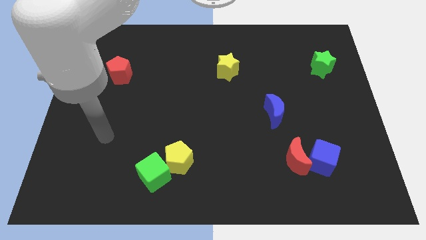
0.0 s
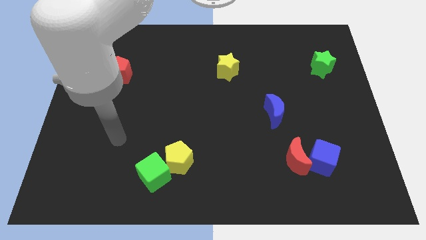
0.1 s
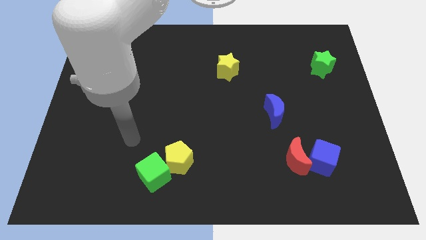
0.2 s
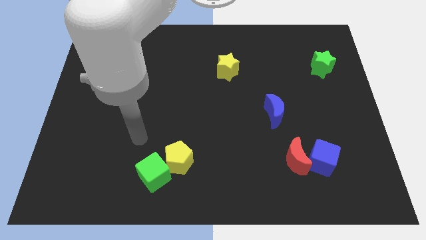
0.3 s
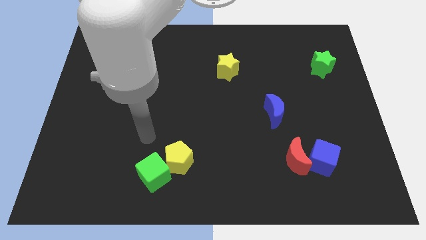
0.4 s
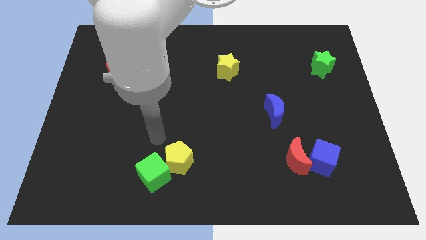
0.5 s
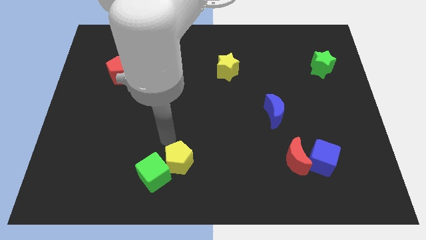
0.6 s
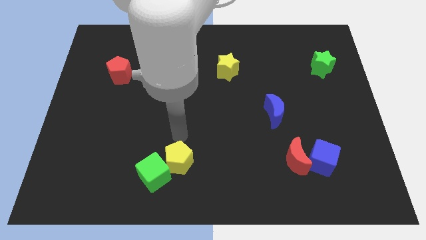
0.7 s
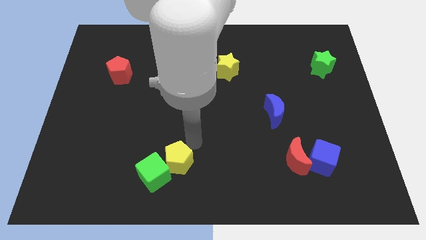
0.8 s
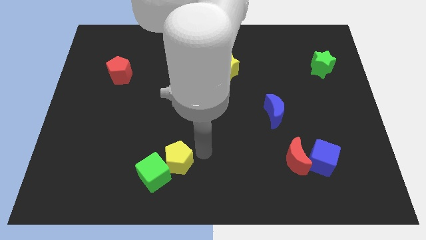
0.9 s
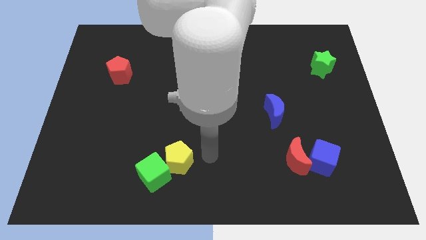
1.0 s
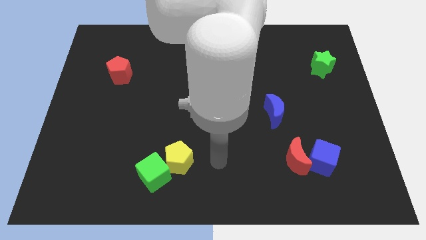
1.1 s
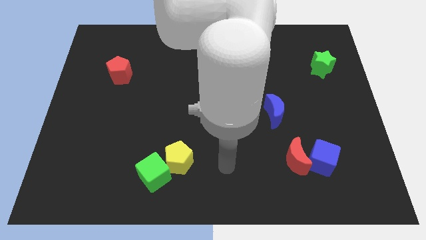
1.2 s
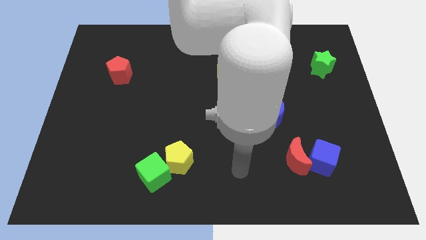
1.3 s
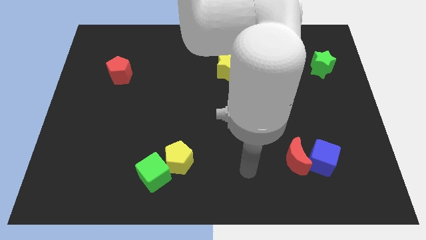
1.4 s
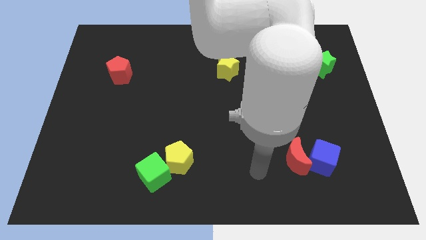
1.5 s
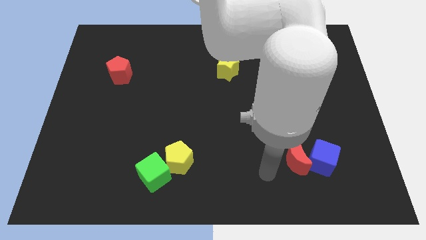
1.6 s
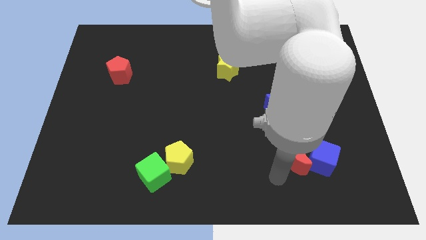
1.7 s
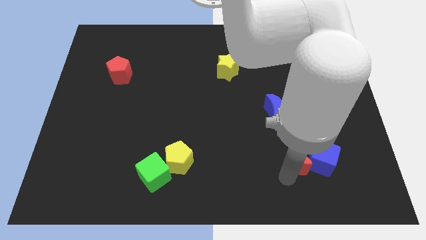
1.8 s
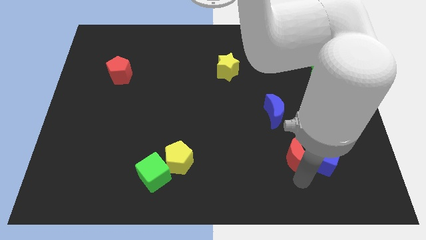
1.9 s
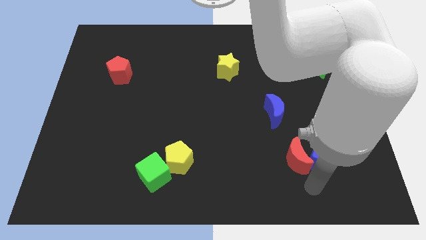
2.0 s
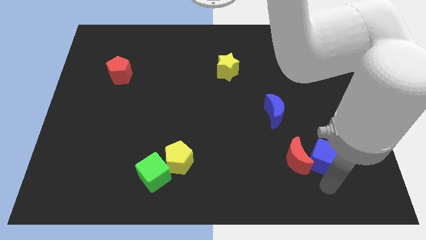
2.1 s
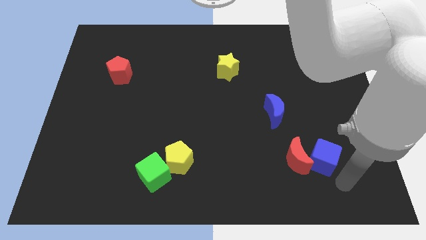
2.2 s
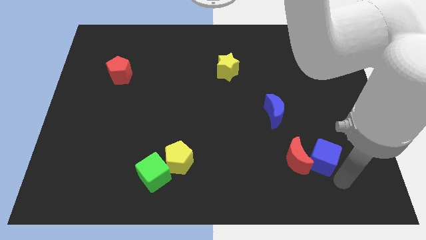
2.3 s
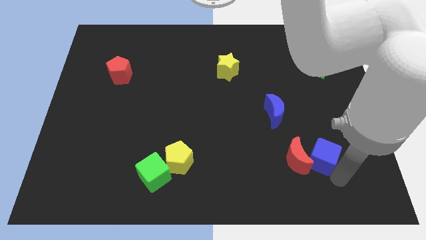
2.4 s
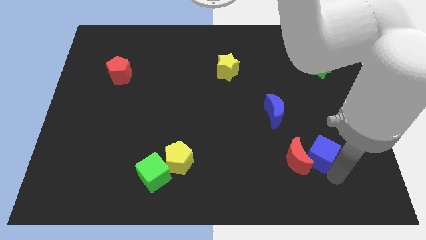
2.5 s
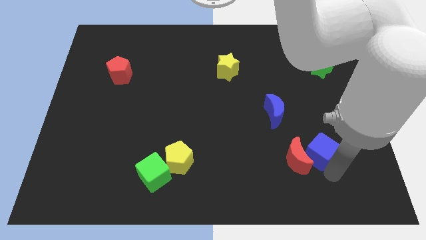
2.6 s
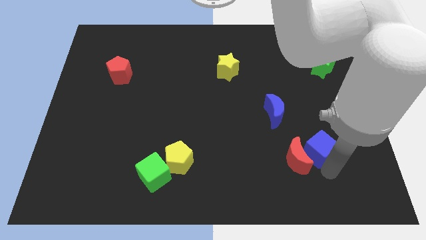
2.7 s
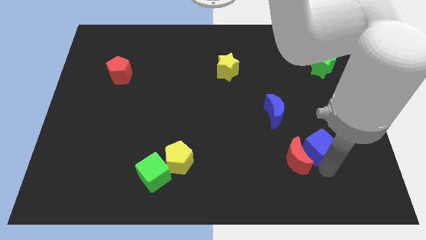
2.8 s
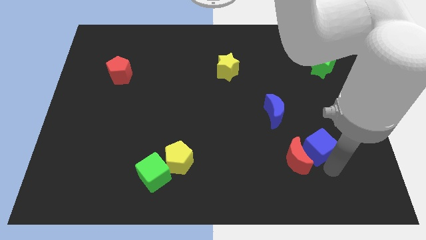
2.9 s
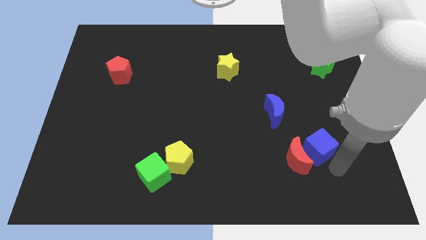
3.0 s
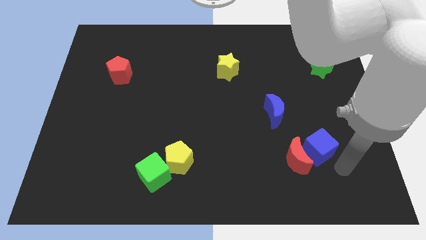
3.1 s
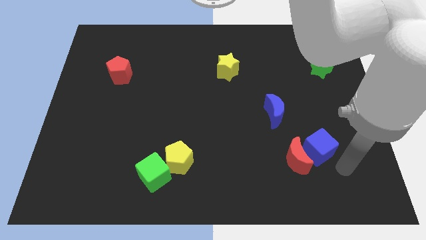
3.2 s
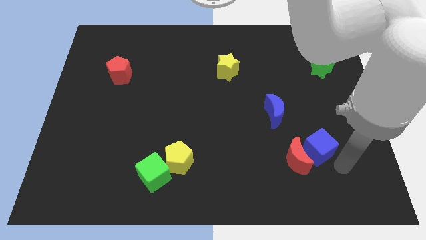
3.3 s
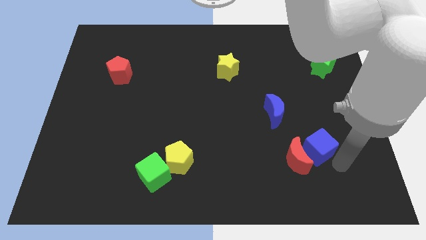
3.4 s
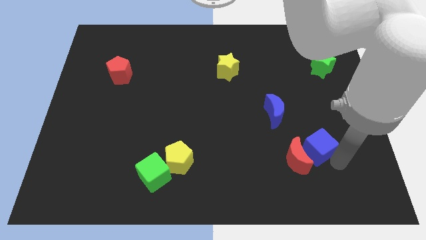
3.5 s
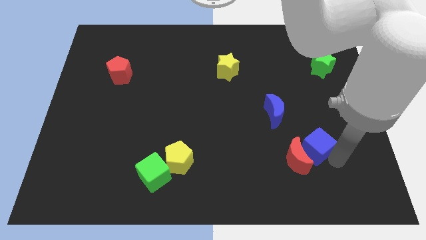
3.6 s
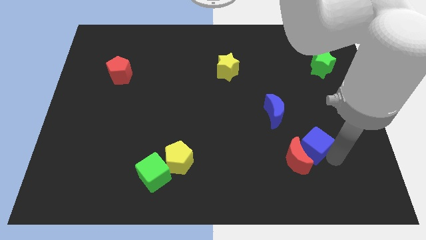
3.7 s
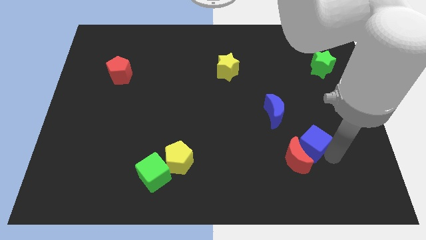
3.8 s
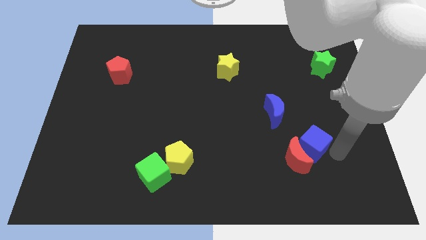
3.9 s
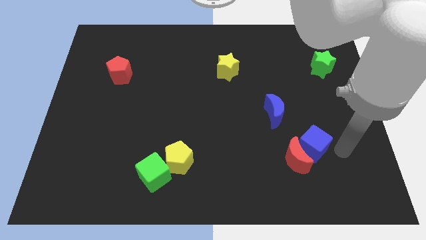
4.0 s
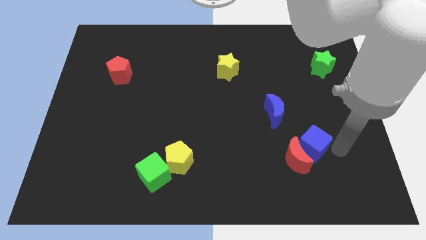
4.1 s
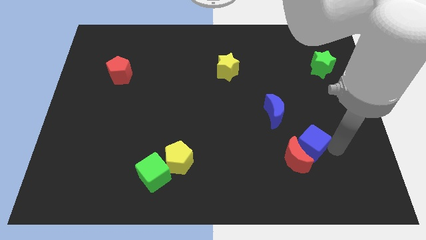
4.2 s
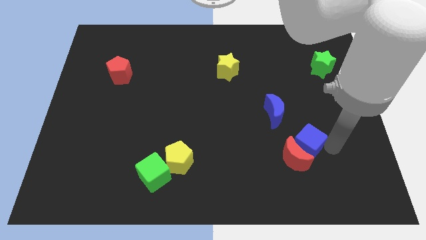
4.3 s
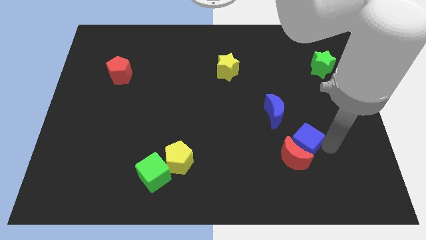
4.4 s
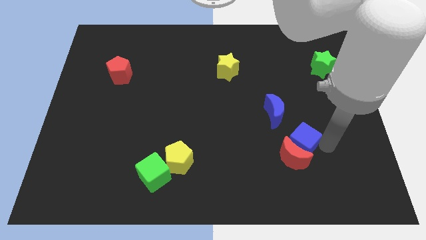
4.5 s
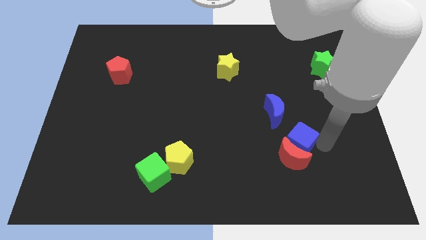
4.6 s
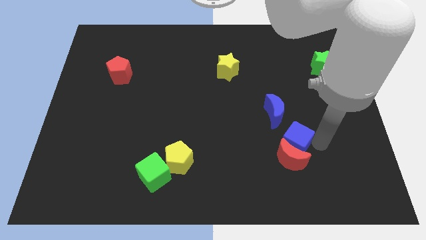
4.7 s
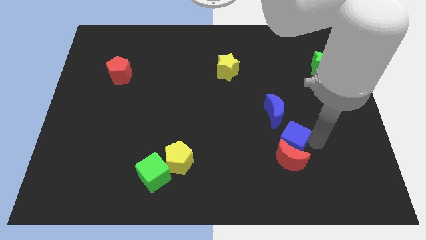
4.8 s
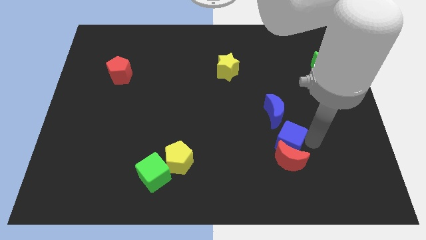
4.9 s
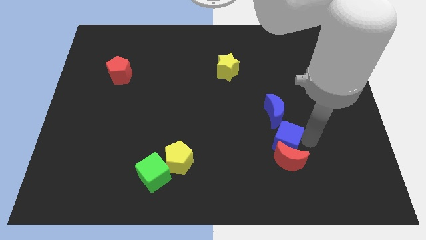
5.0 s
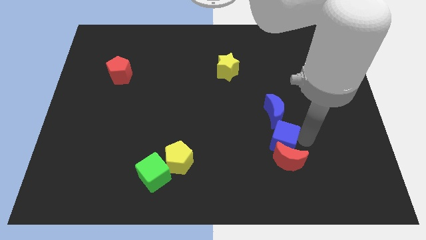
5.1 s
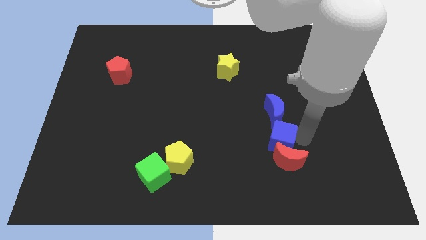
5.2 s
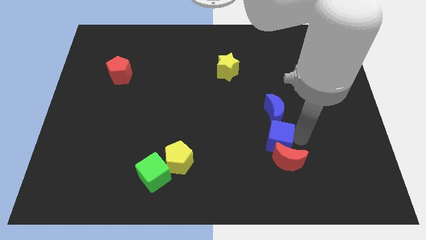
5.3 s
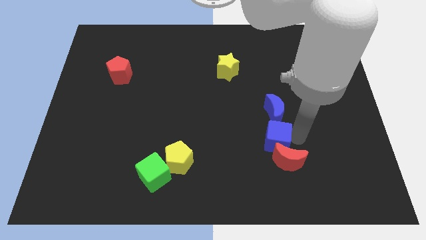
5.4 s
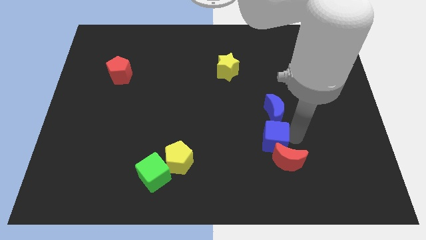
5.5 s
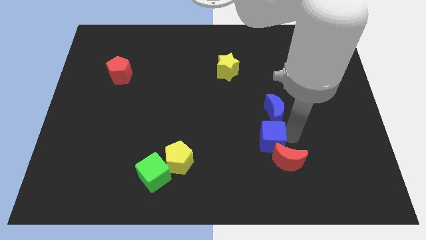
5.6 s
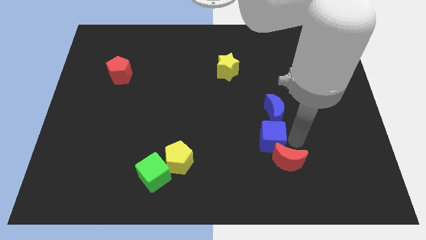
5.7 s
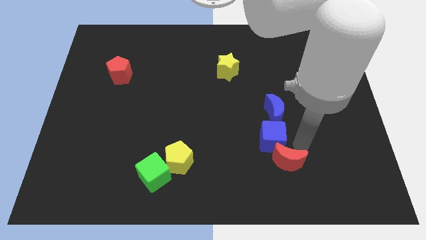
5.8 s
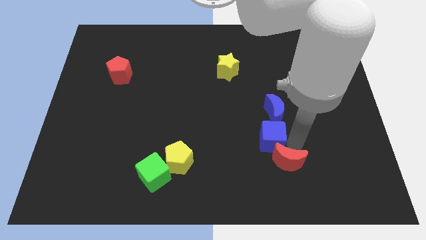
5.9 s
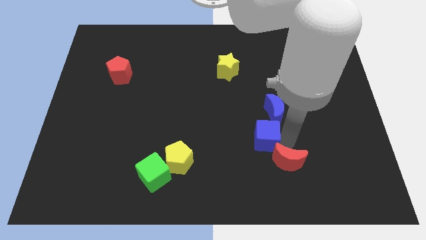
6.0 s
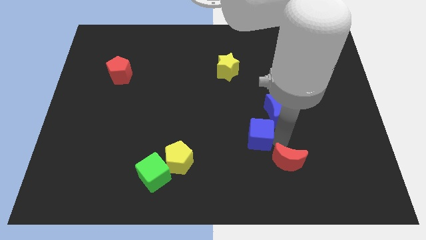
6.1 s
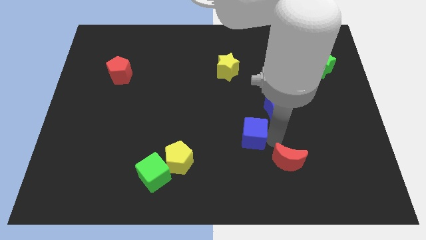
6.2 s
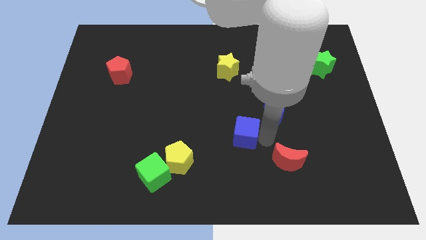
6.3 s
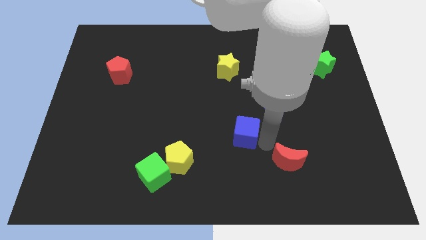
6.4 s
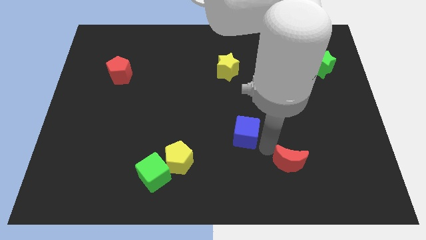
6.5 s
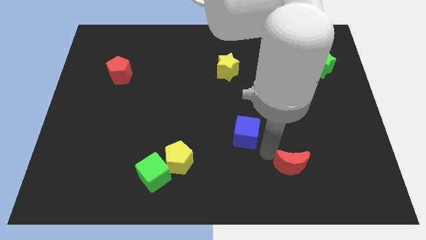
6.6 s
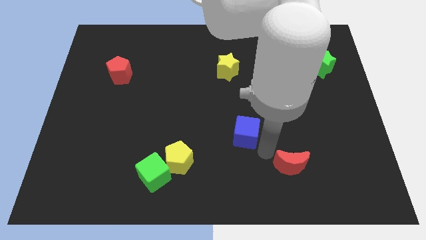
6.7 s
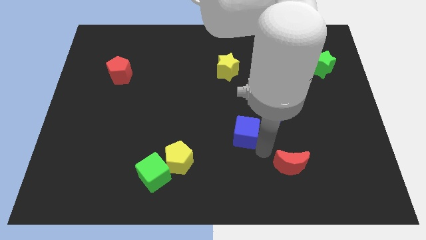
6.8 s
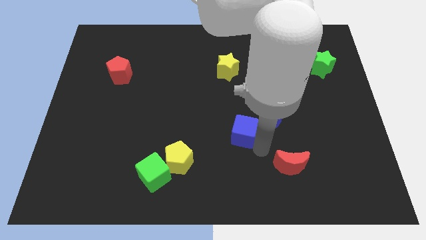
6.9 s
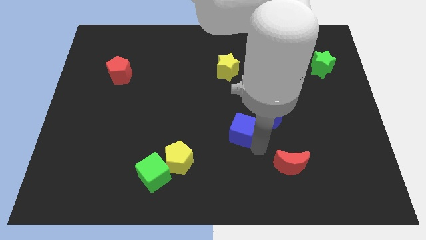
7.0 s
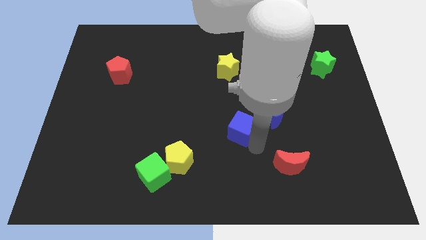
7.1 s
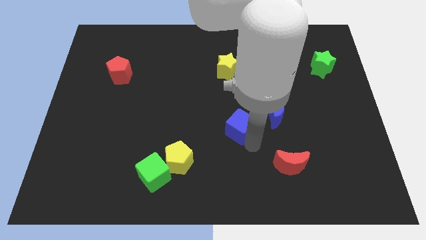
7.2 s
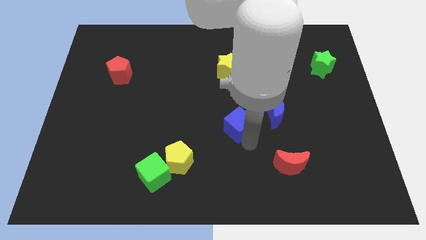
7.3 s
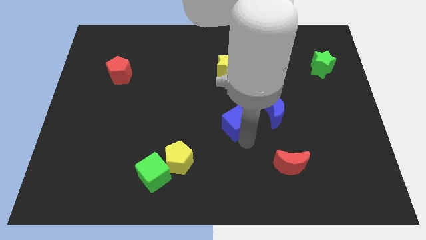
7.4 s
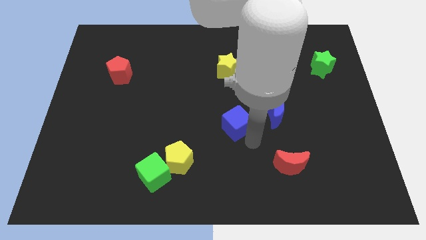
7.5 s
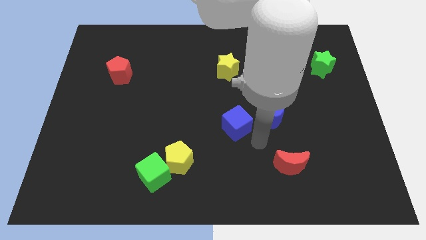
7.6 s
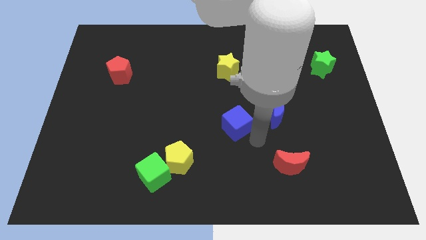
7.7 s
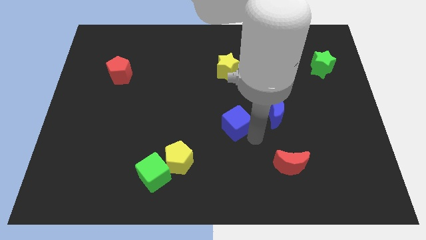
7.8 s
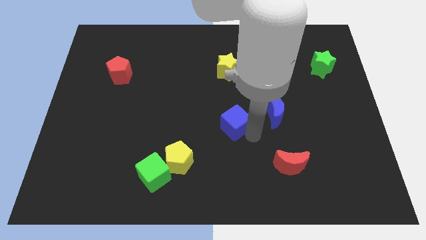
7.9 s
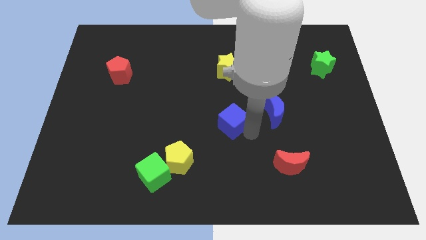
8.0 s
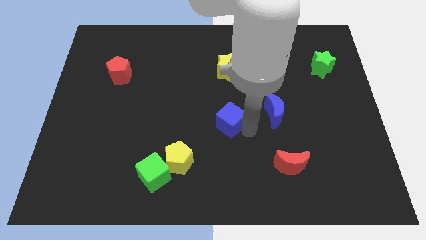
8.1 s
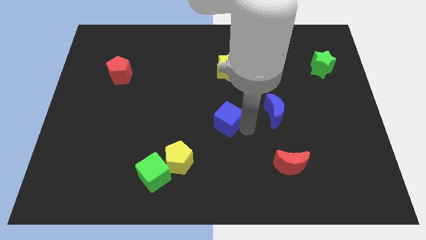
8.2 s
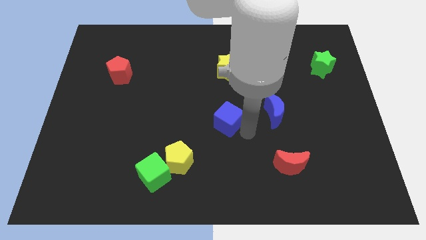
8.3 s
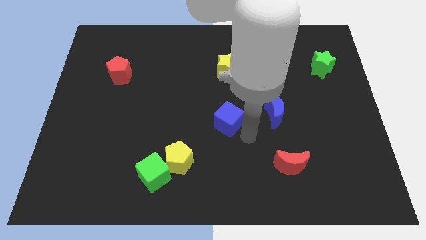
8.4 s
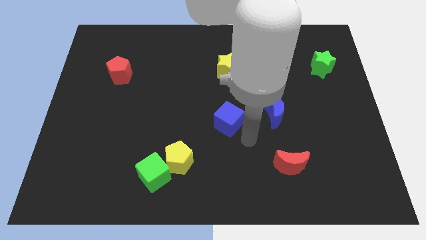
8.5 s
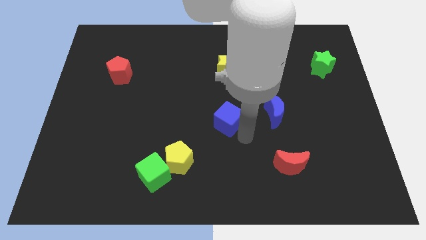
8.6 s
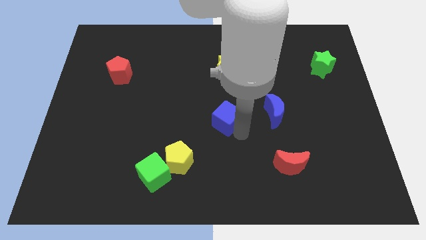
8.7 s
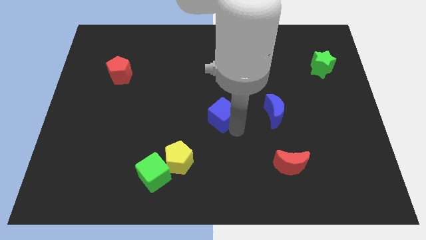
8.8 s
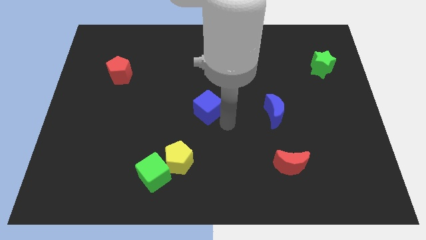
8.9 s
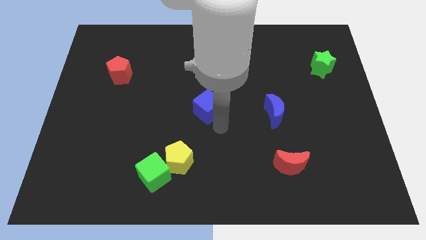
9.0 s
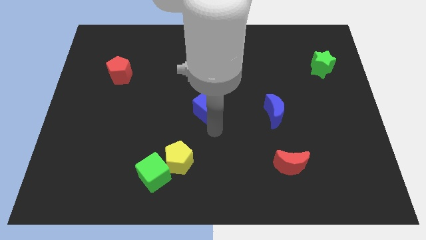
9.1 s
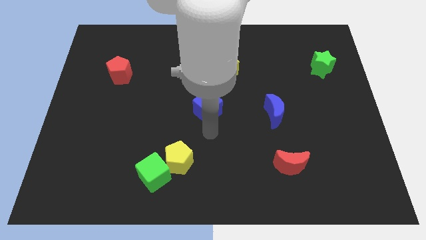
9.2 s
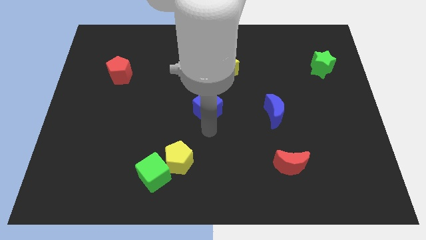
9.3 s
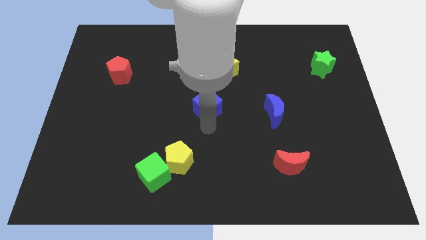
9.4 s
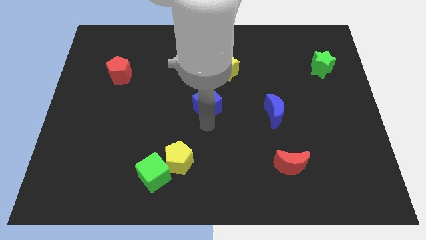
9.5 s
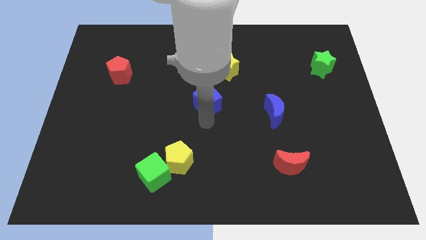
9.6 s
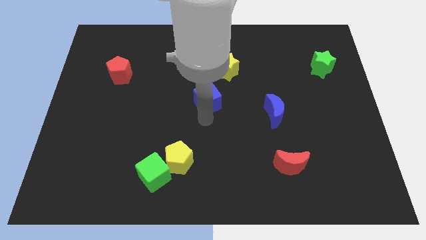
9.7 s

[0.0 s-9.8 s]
put the blue cube diagonally down and to the left of the yellow star
